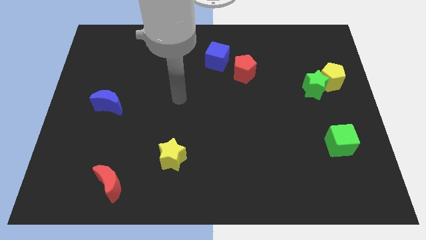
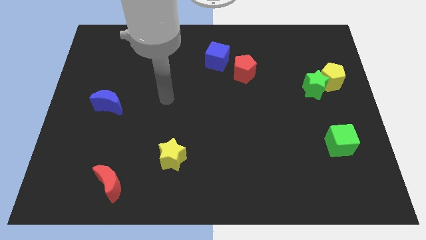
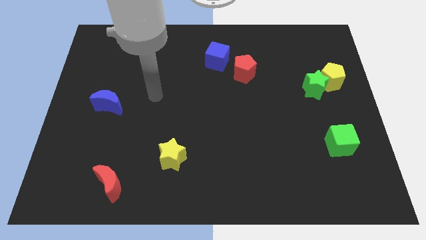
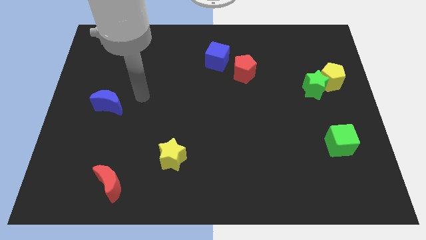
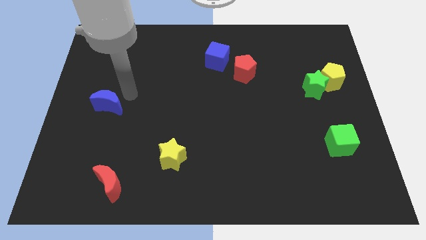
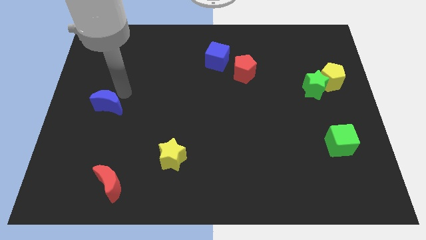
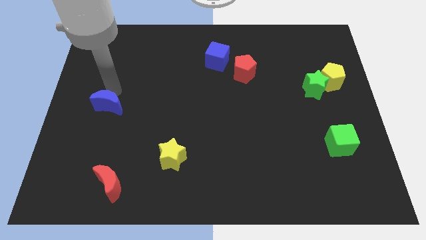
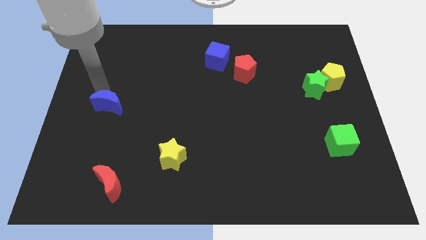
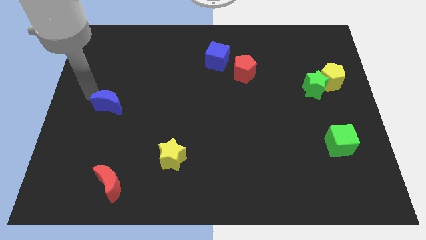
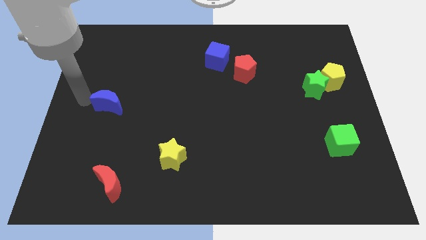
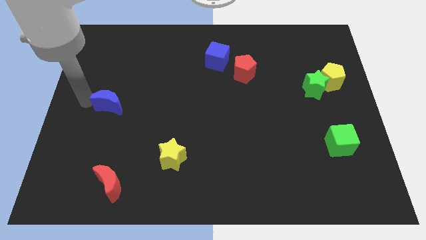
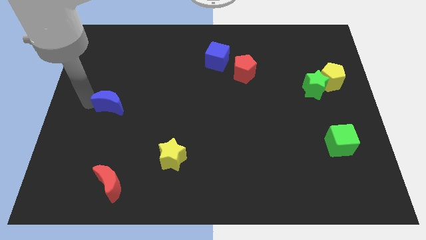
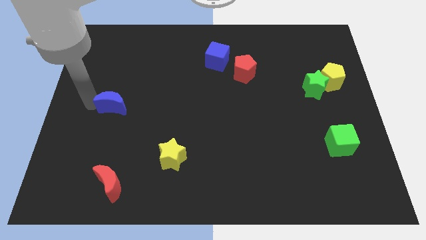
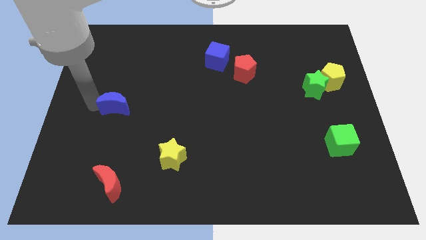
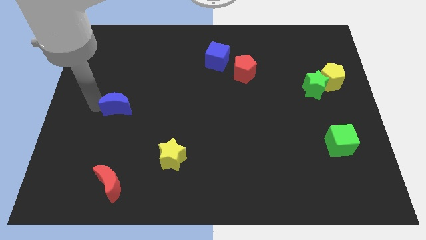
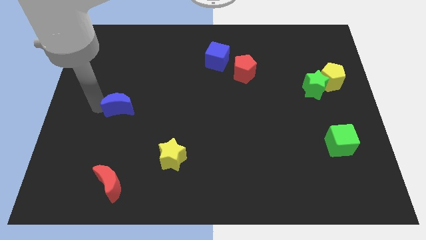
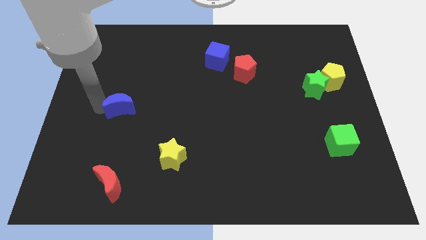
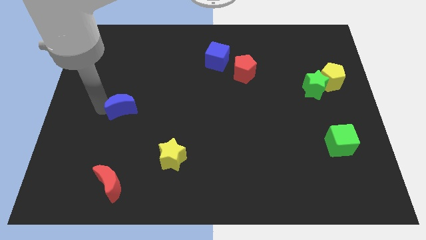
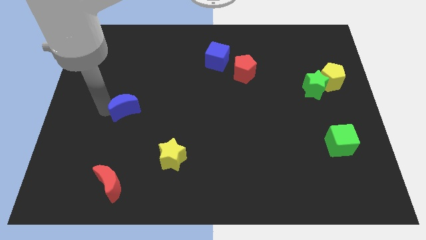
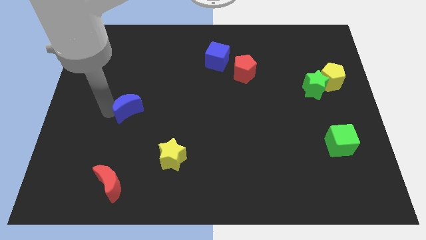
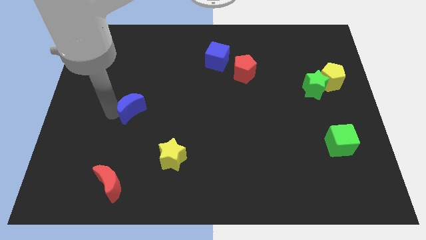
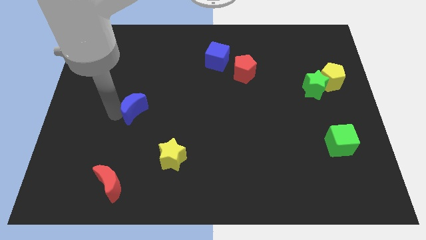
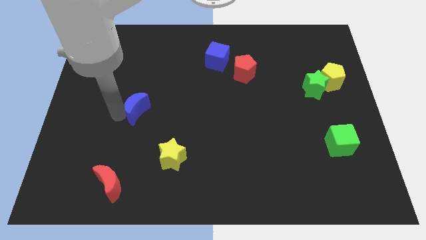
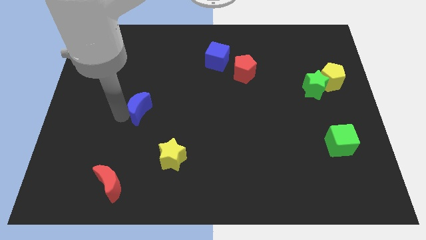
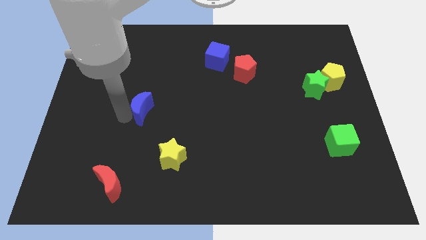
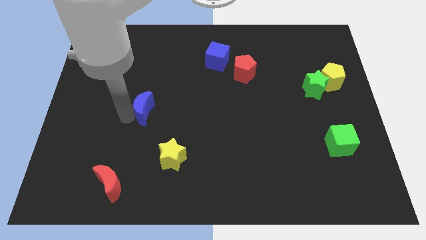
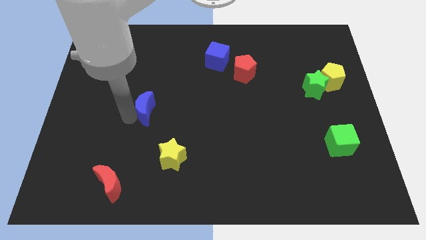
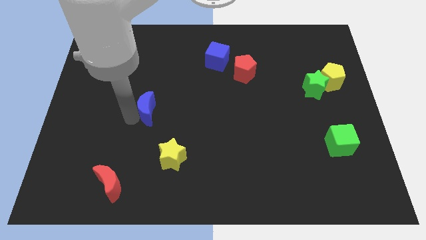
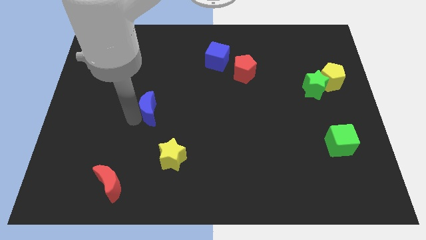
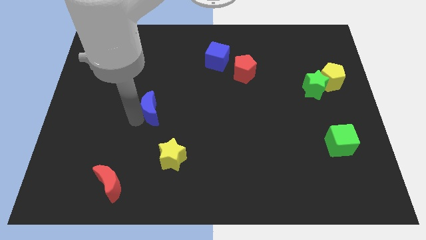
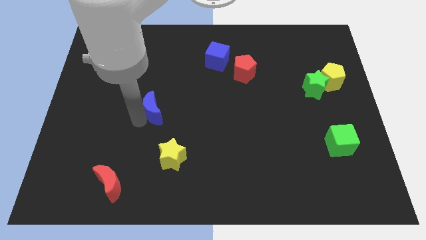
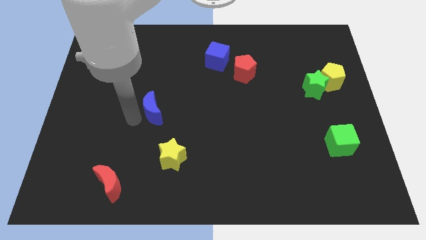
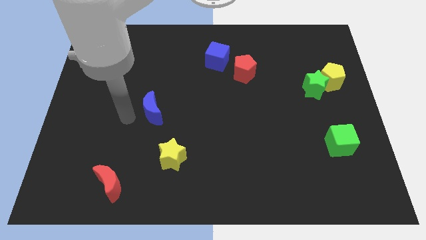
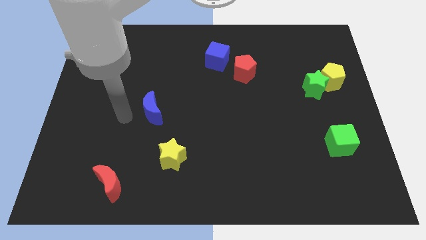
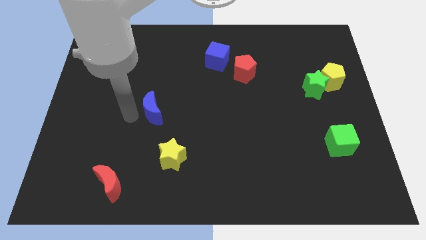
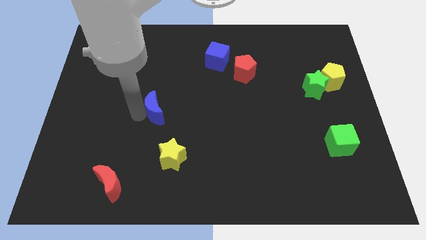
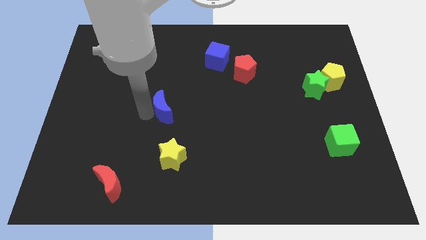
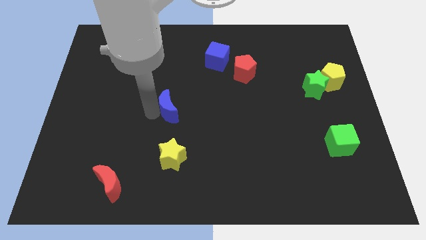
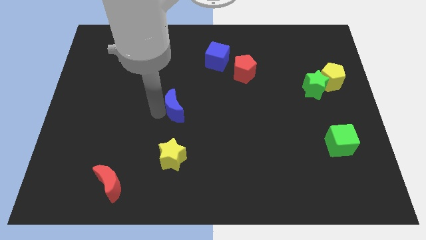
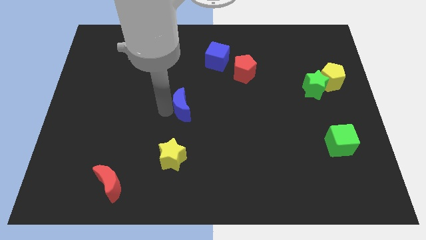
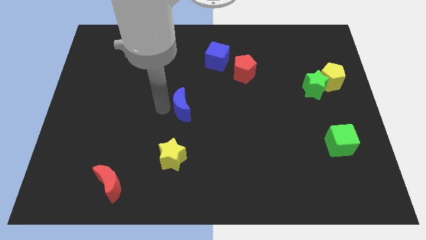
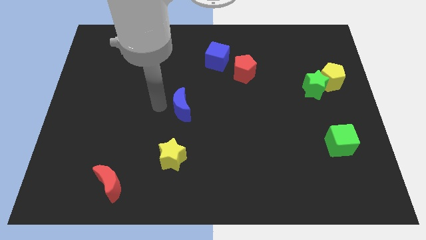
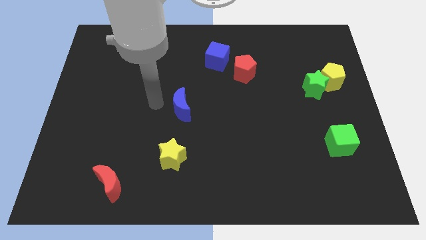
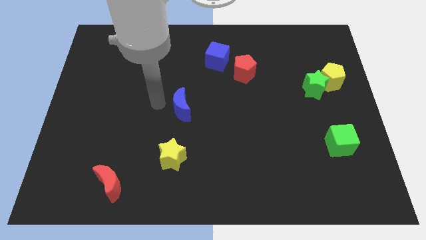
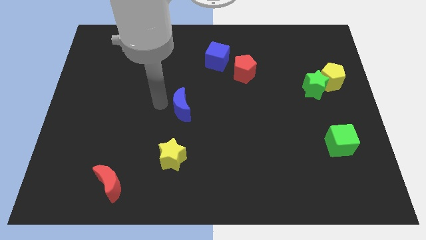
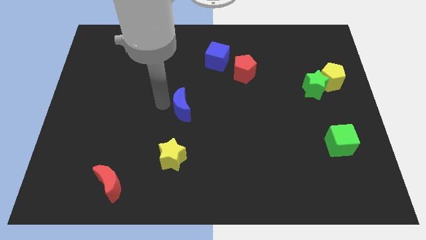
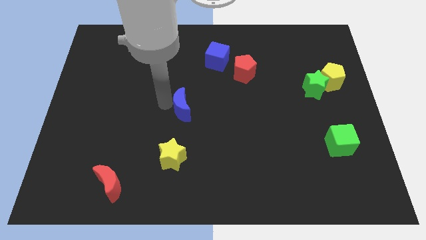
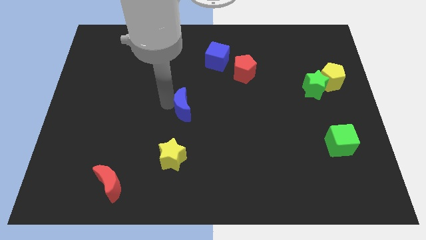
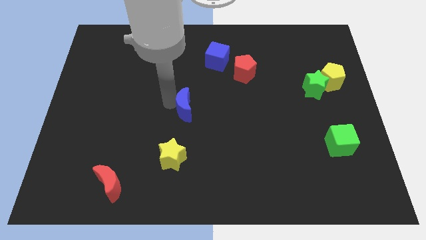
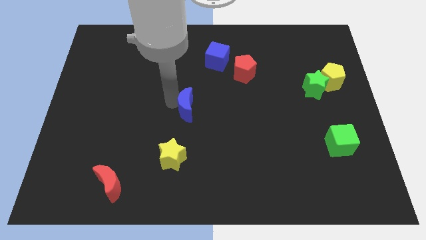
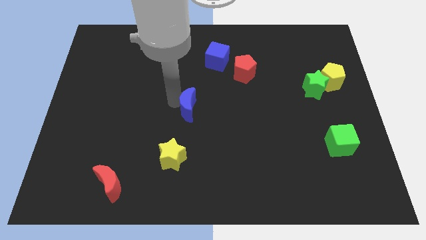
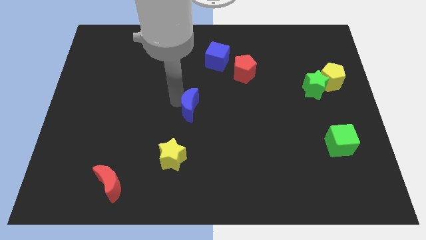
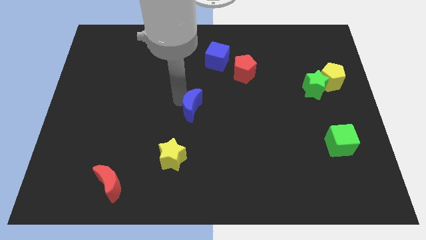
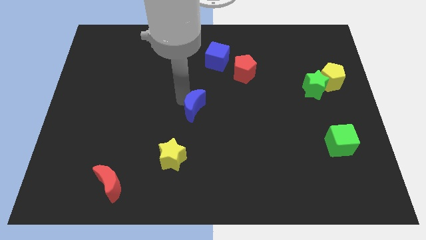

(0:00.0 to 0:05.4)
slide the blue moon to the right

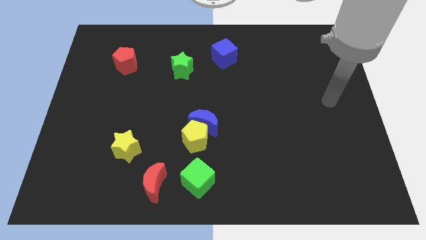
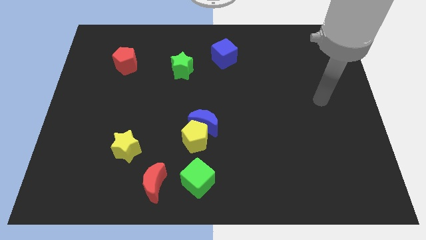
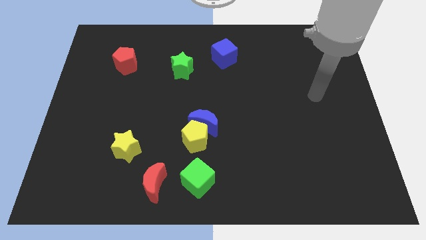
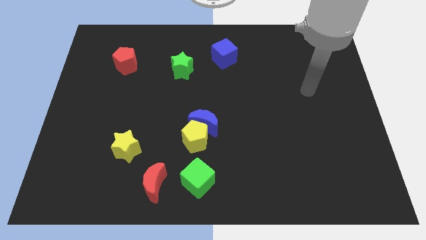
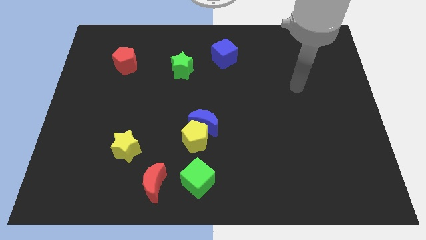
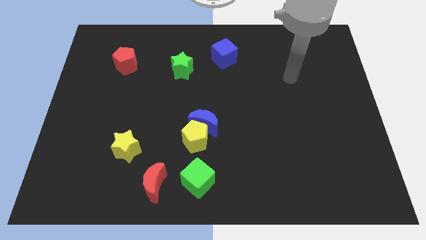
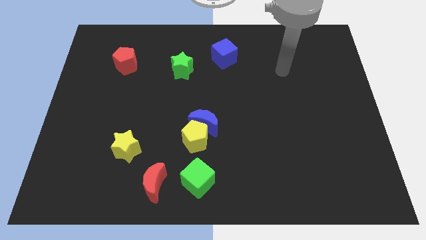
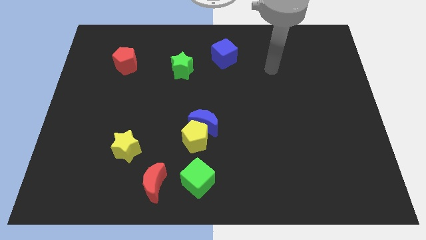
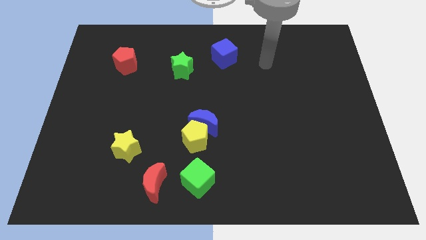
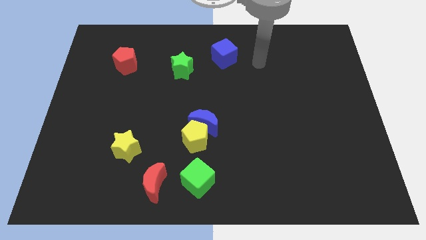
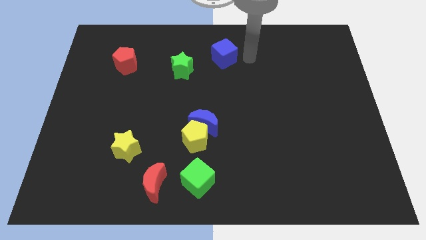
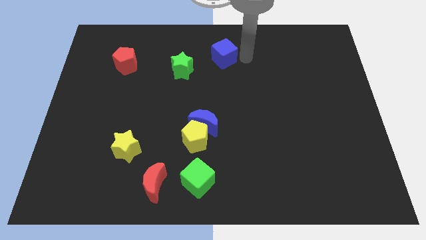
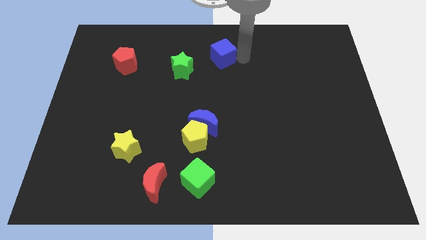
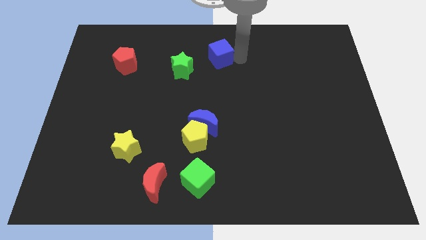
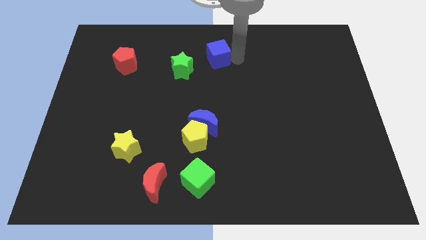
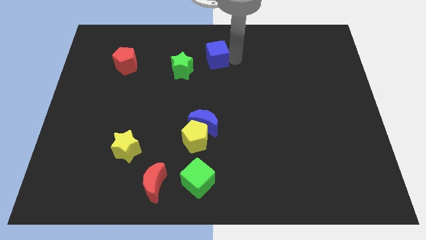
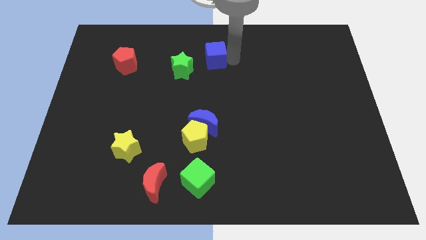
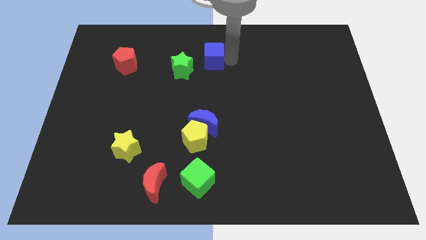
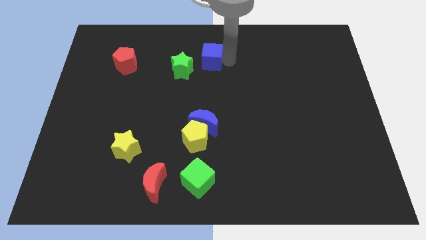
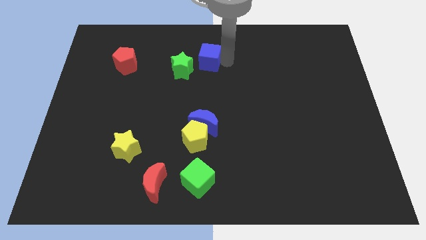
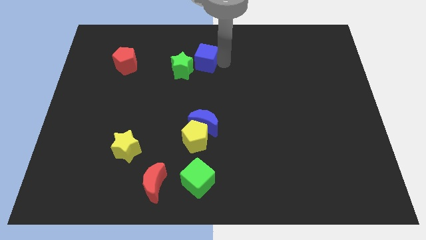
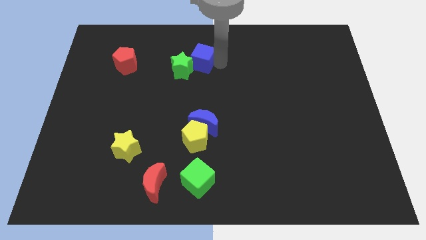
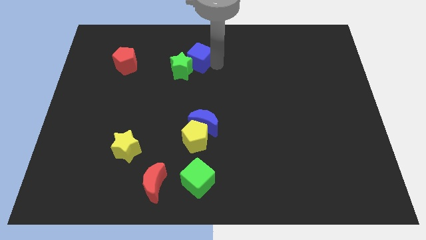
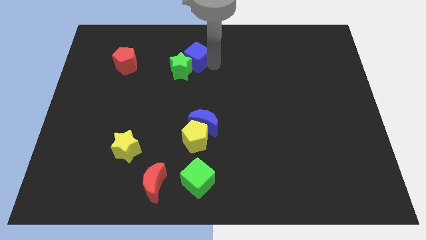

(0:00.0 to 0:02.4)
slide the blue cube somewhat left
